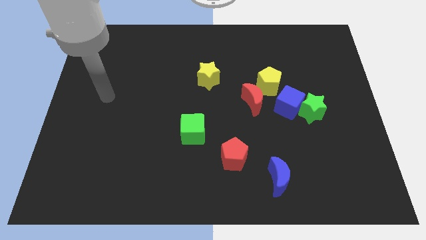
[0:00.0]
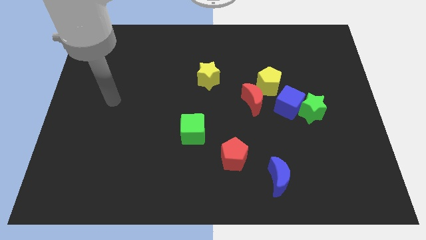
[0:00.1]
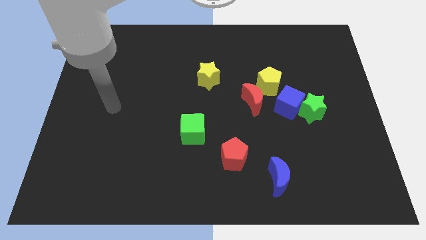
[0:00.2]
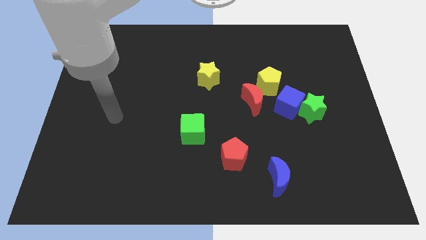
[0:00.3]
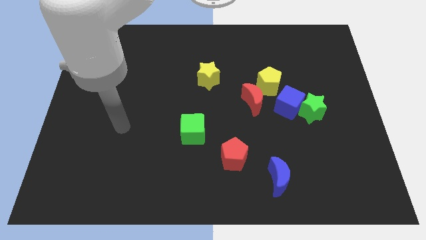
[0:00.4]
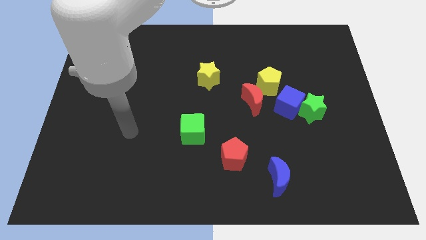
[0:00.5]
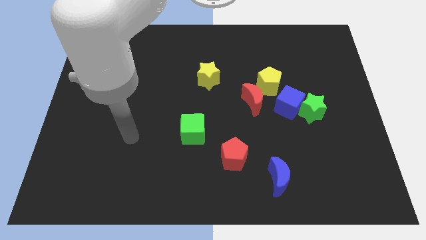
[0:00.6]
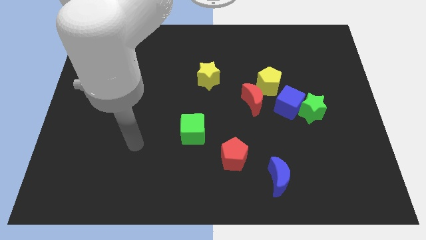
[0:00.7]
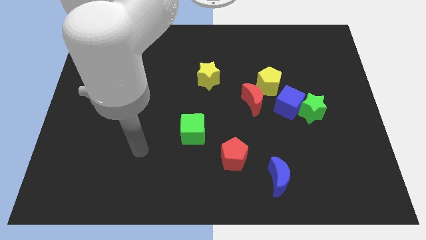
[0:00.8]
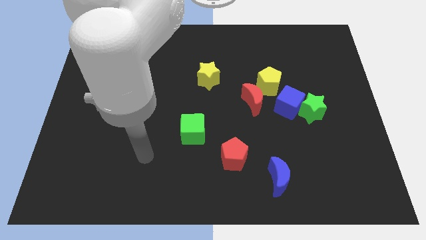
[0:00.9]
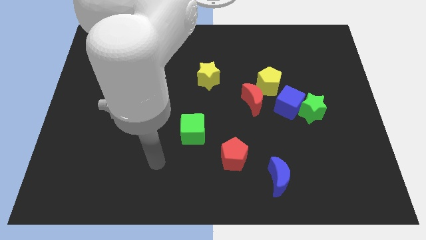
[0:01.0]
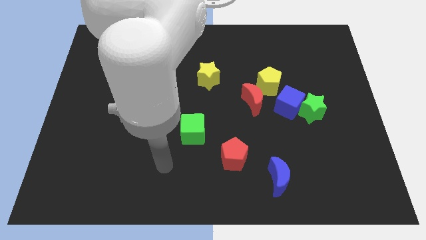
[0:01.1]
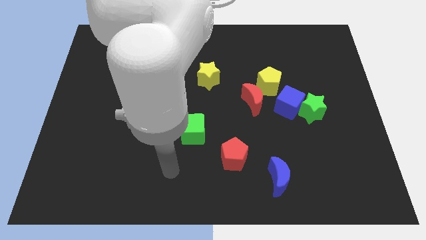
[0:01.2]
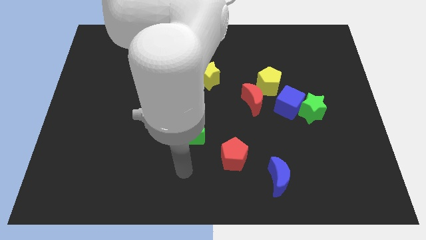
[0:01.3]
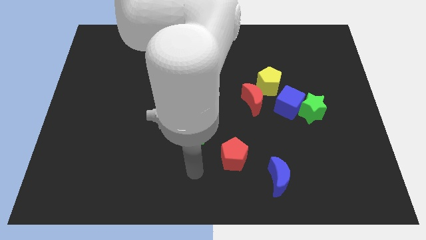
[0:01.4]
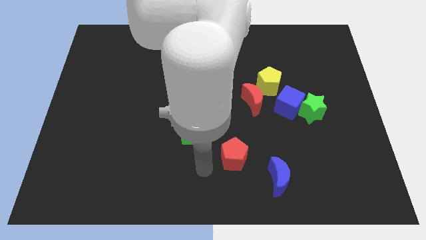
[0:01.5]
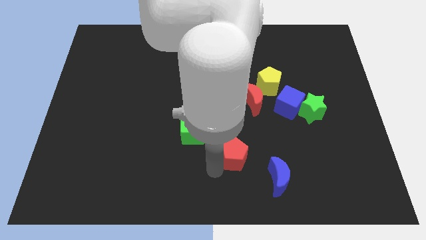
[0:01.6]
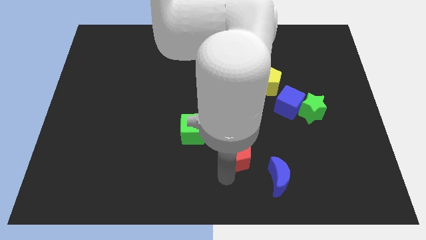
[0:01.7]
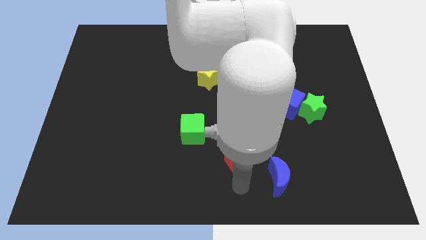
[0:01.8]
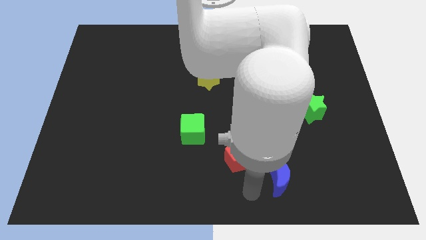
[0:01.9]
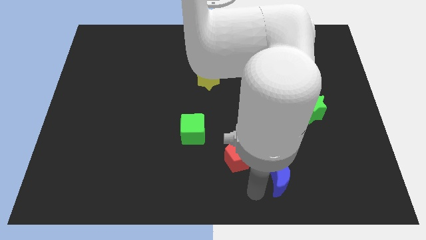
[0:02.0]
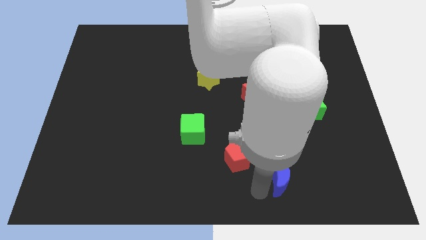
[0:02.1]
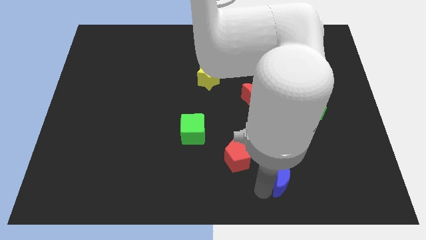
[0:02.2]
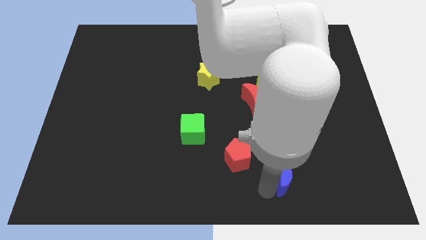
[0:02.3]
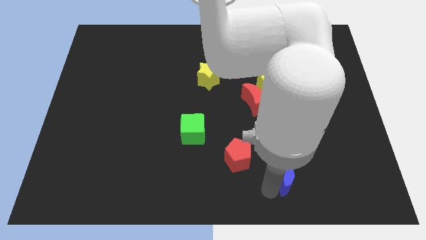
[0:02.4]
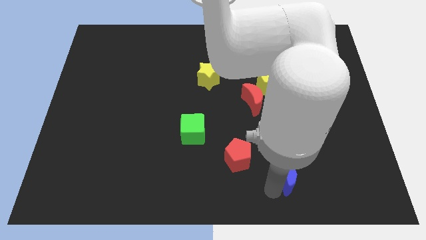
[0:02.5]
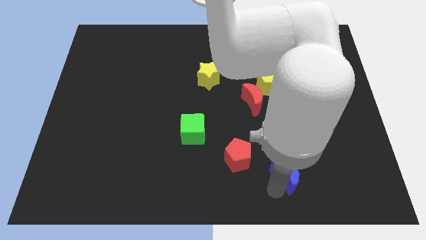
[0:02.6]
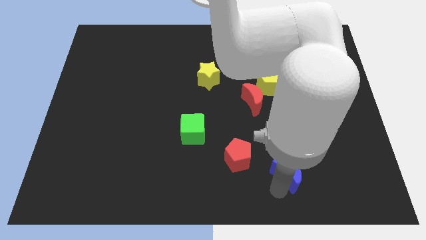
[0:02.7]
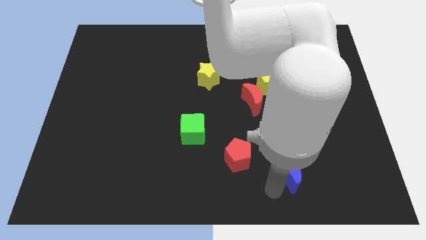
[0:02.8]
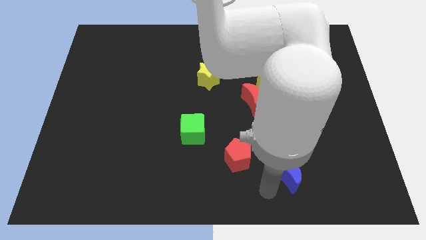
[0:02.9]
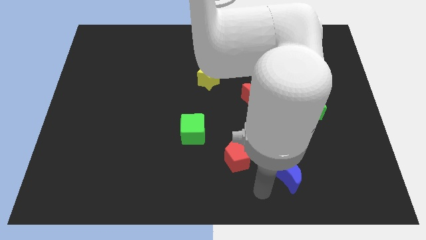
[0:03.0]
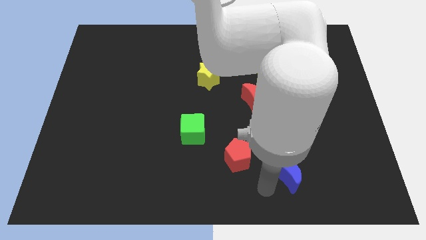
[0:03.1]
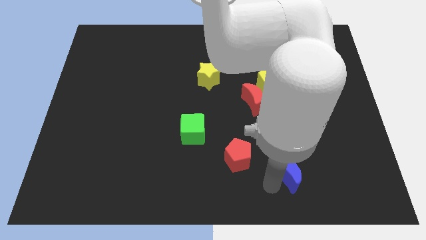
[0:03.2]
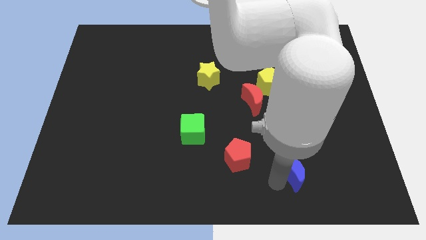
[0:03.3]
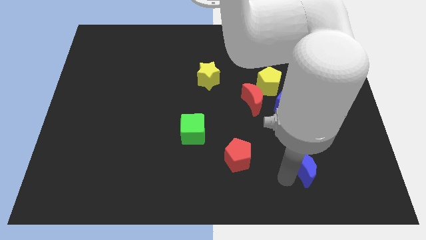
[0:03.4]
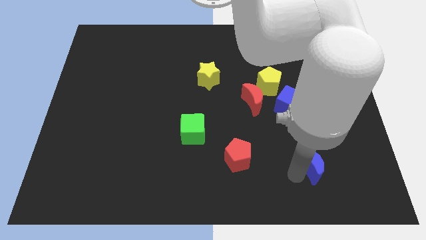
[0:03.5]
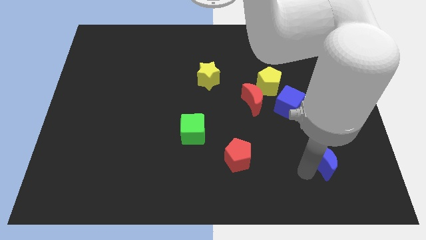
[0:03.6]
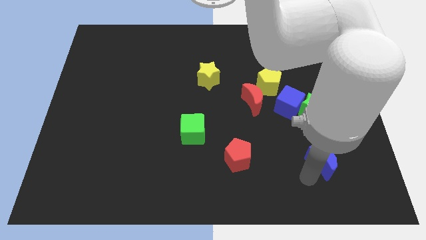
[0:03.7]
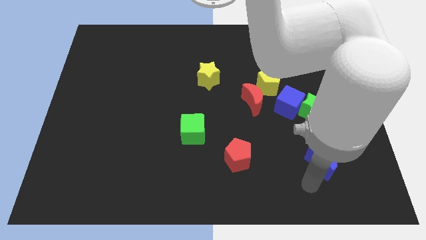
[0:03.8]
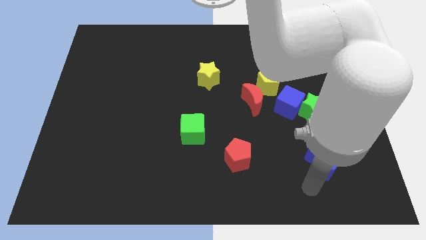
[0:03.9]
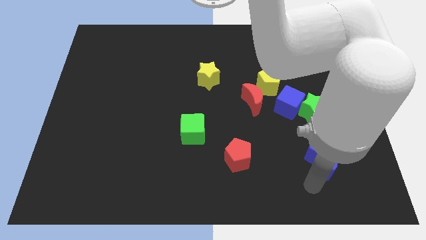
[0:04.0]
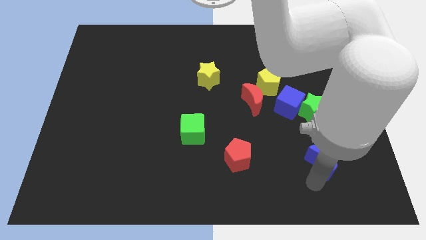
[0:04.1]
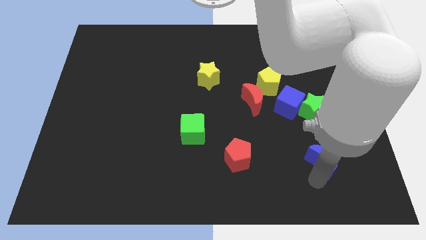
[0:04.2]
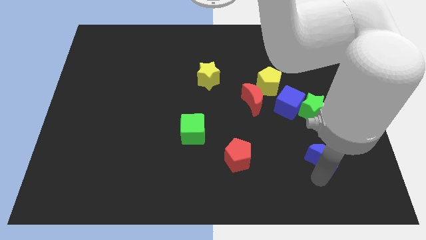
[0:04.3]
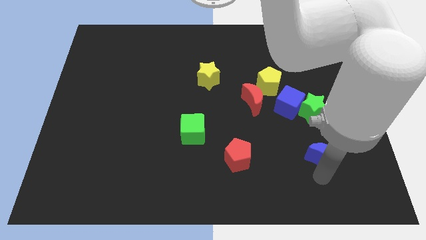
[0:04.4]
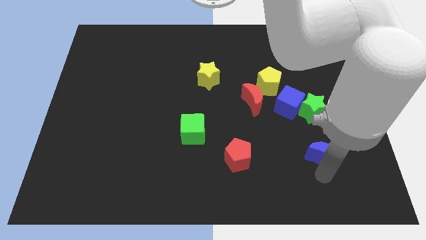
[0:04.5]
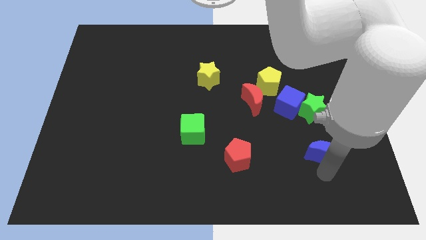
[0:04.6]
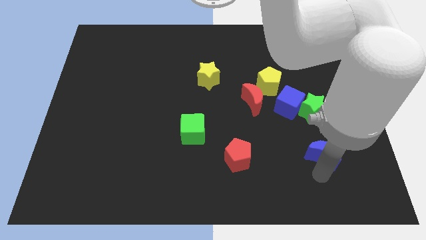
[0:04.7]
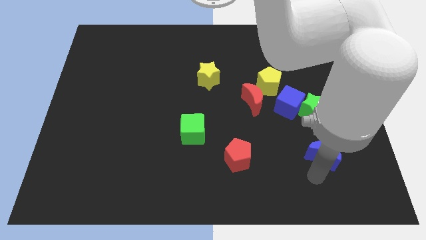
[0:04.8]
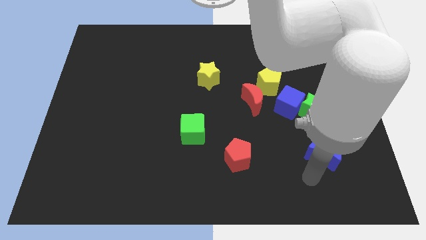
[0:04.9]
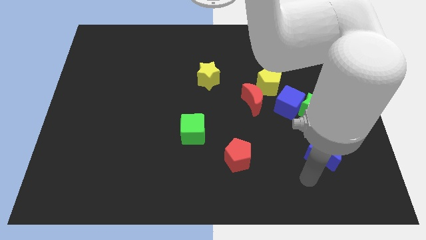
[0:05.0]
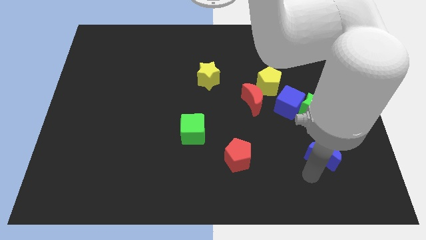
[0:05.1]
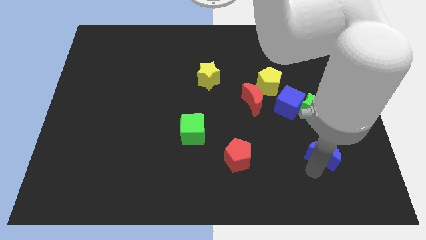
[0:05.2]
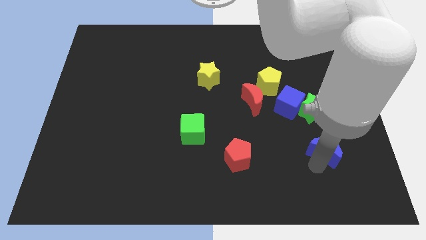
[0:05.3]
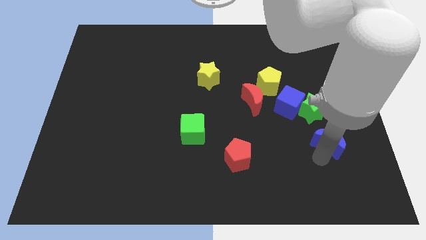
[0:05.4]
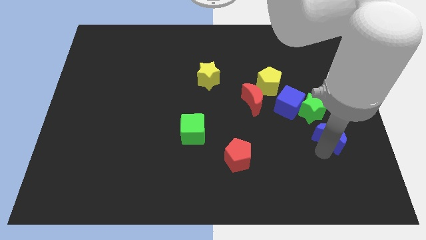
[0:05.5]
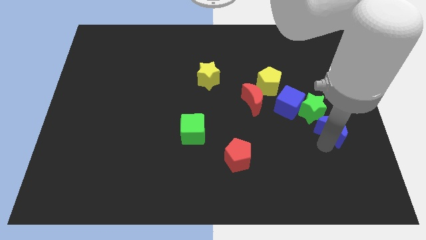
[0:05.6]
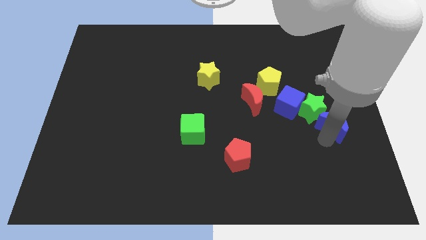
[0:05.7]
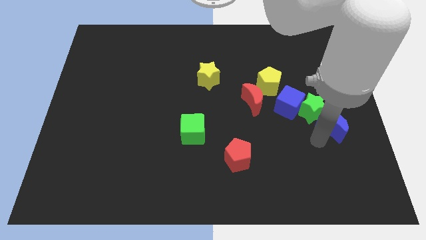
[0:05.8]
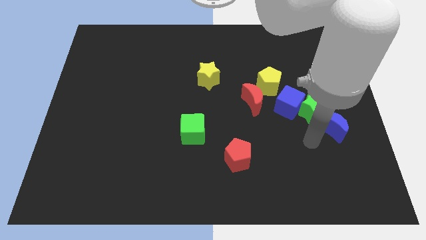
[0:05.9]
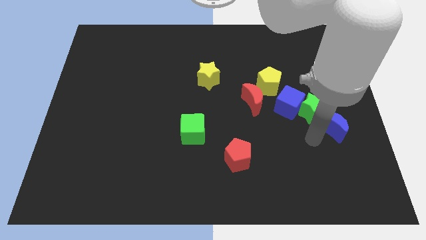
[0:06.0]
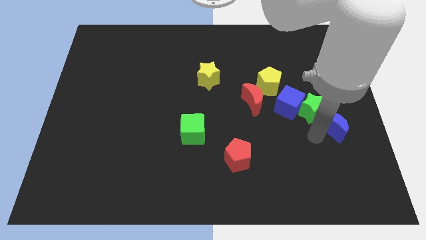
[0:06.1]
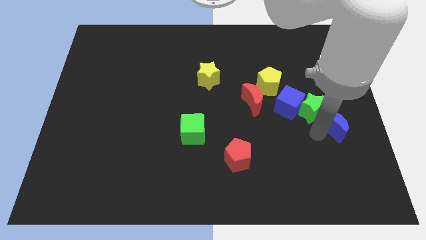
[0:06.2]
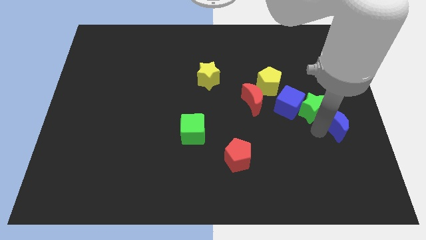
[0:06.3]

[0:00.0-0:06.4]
slide the blue moon to the right side
